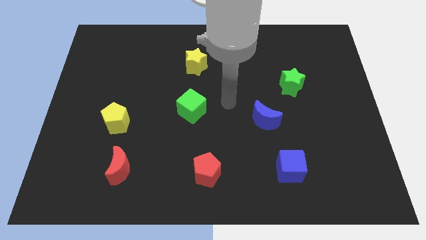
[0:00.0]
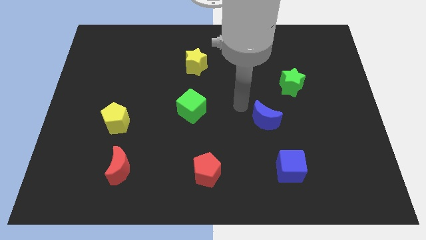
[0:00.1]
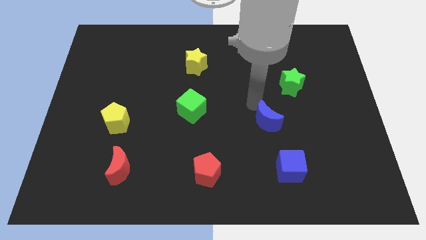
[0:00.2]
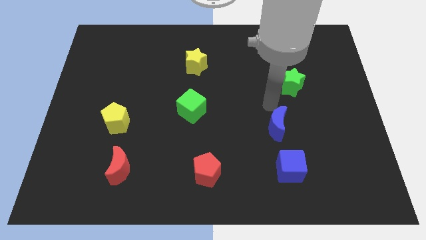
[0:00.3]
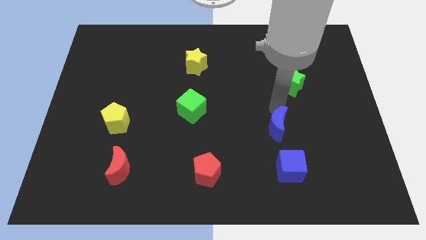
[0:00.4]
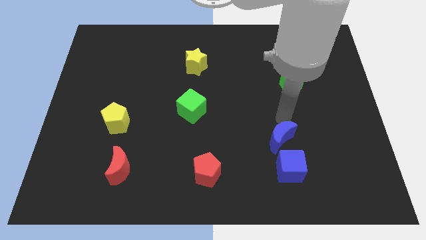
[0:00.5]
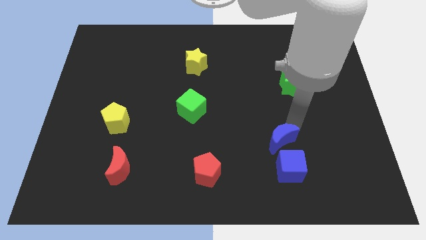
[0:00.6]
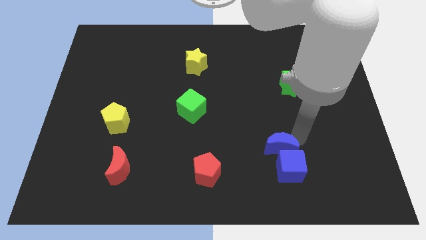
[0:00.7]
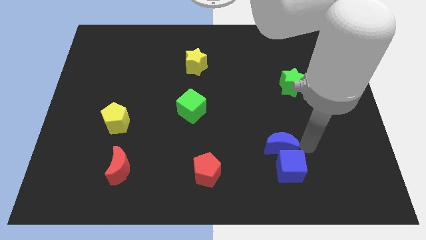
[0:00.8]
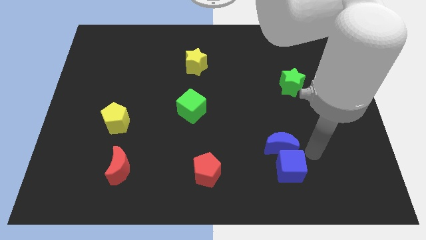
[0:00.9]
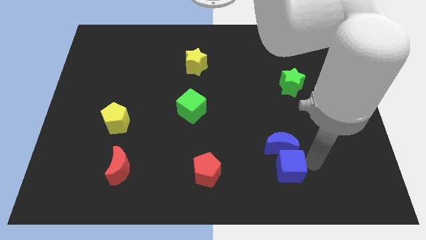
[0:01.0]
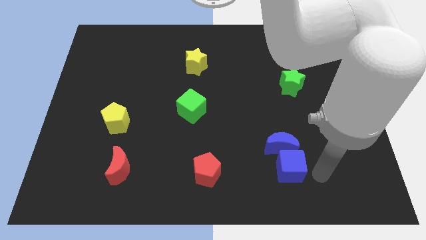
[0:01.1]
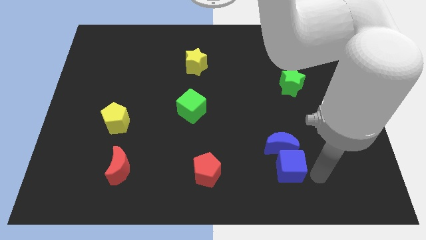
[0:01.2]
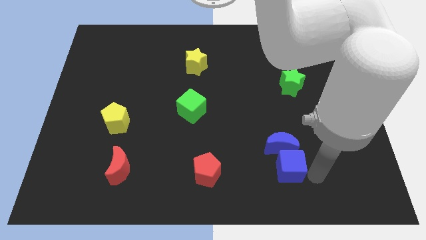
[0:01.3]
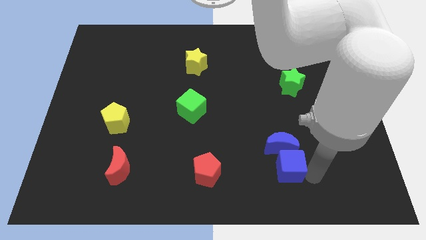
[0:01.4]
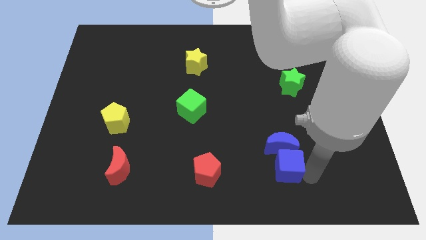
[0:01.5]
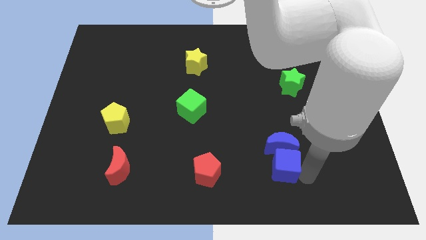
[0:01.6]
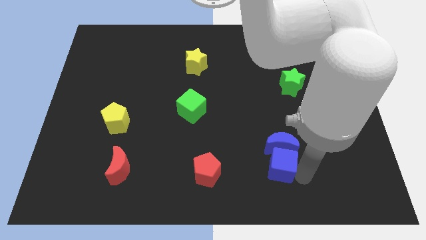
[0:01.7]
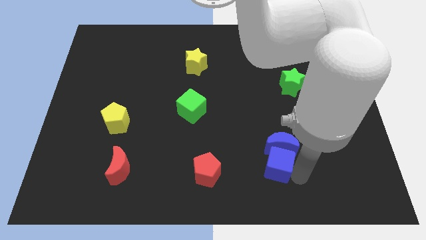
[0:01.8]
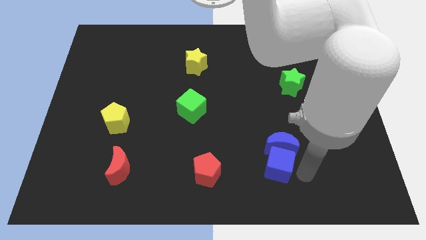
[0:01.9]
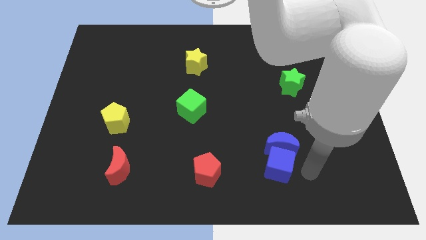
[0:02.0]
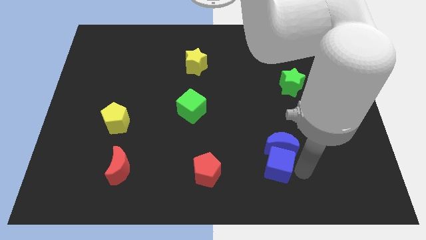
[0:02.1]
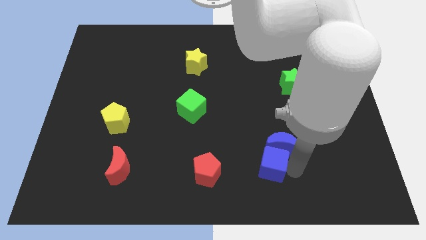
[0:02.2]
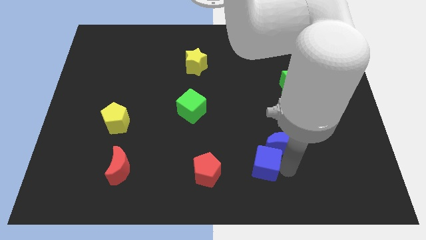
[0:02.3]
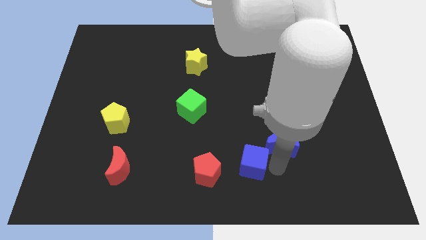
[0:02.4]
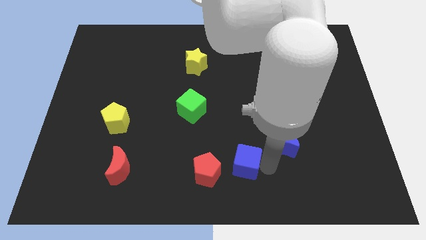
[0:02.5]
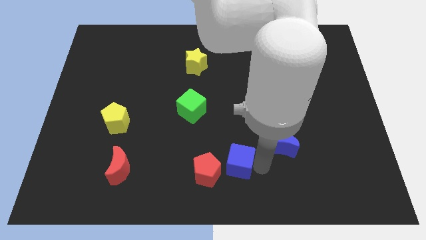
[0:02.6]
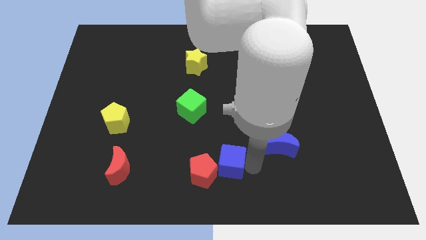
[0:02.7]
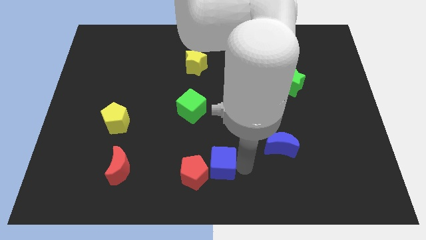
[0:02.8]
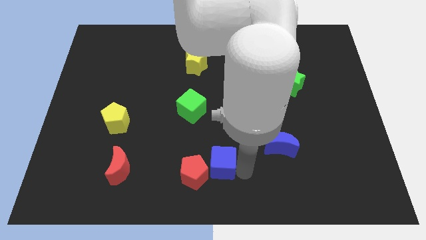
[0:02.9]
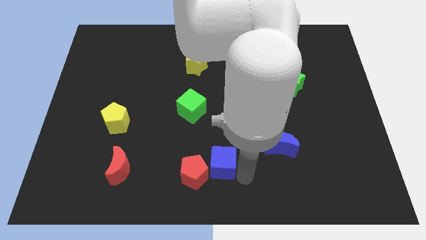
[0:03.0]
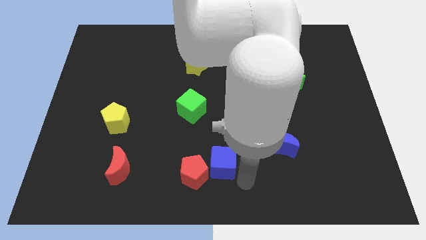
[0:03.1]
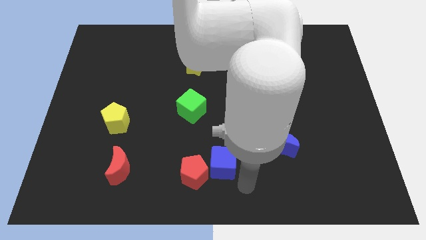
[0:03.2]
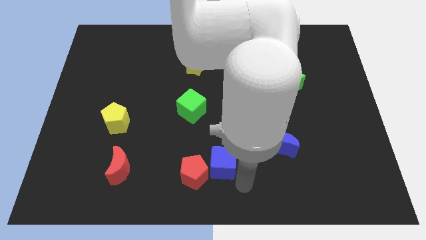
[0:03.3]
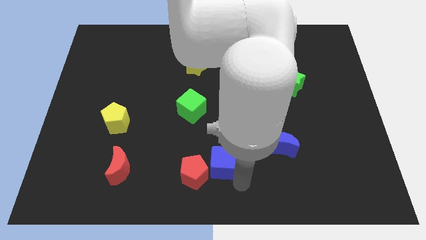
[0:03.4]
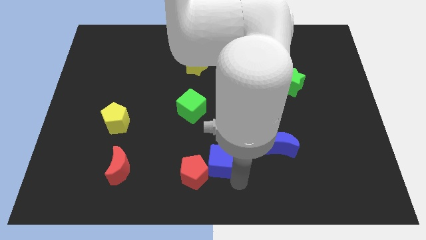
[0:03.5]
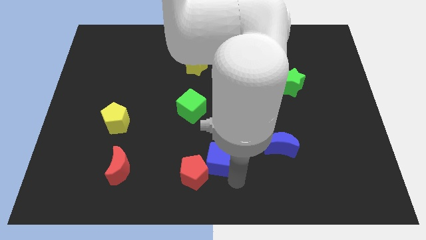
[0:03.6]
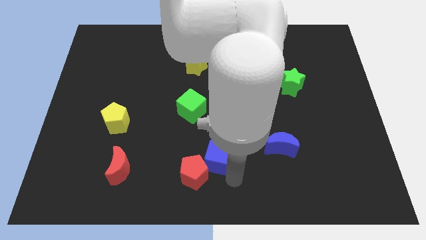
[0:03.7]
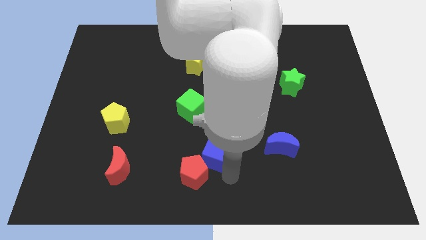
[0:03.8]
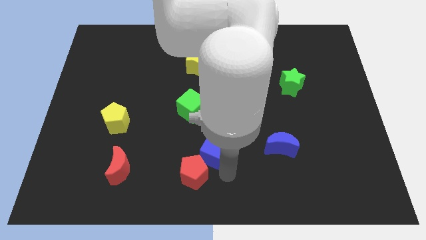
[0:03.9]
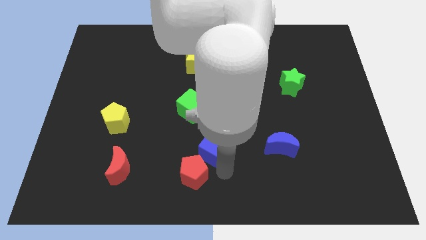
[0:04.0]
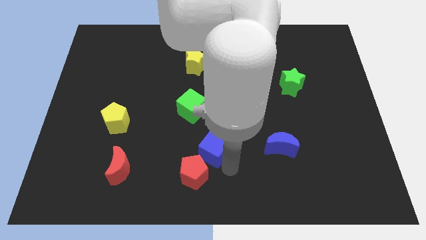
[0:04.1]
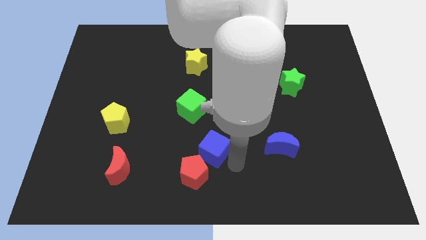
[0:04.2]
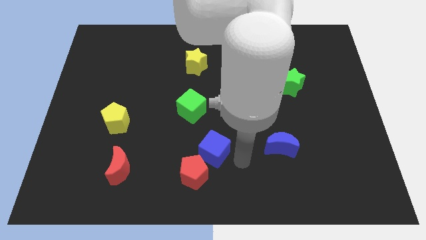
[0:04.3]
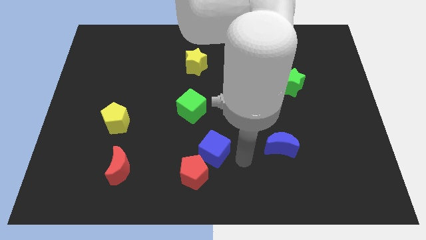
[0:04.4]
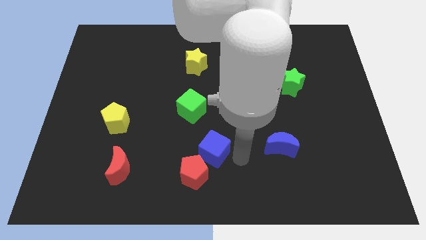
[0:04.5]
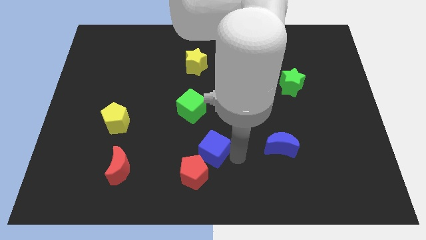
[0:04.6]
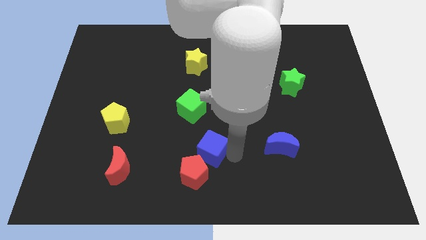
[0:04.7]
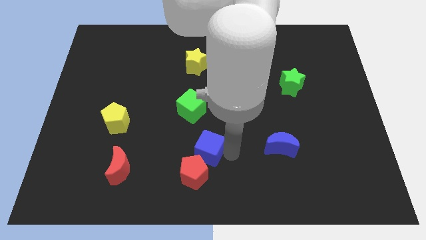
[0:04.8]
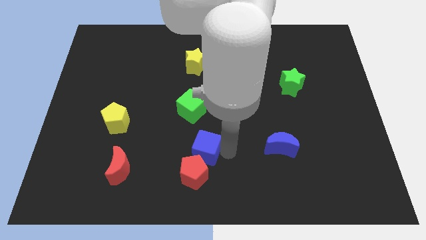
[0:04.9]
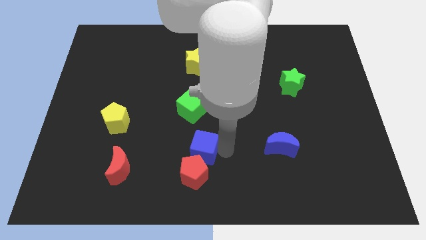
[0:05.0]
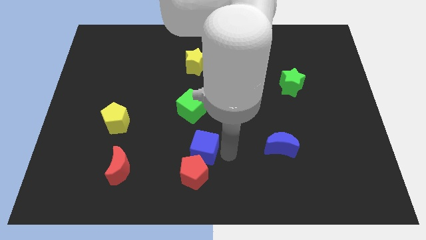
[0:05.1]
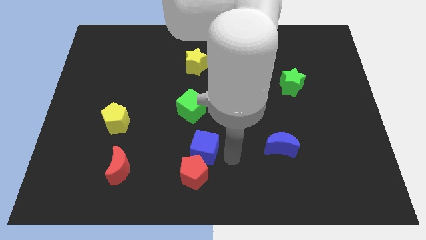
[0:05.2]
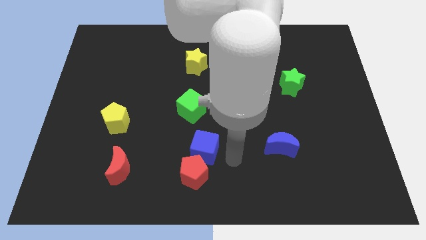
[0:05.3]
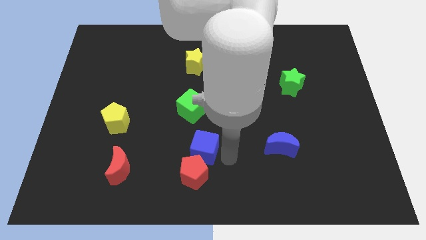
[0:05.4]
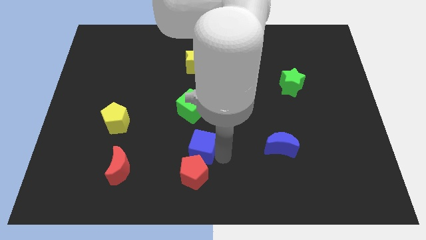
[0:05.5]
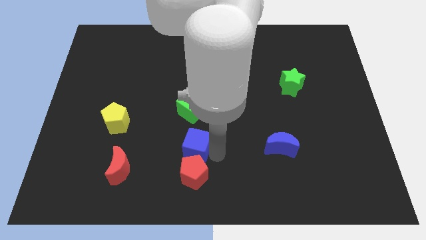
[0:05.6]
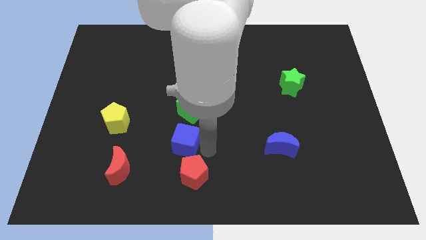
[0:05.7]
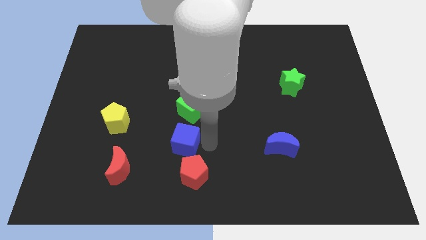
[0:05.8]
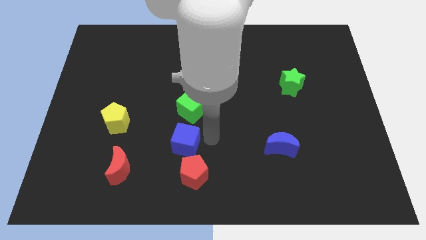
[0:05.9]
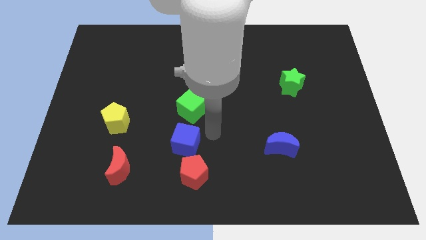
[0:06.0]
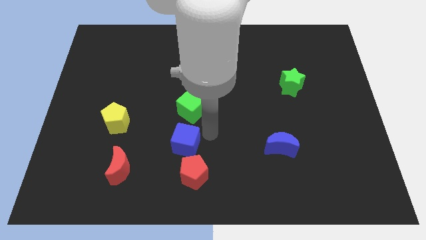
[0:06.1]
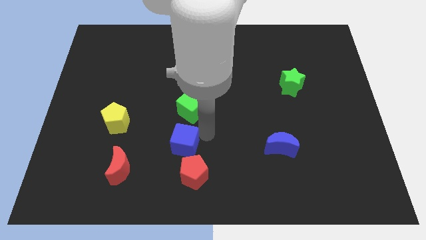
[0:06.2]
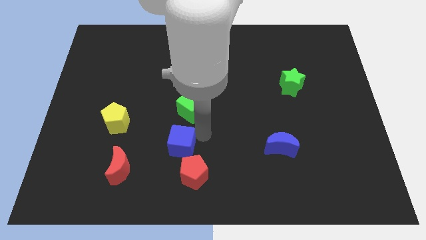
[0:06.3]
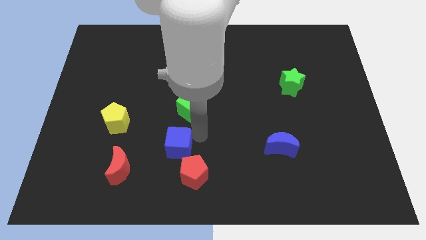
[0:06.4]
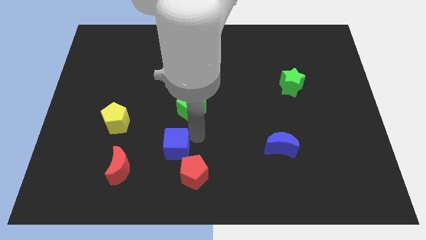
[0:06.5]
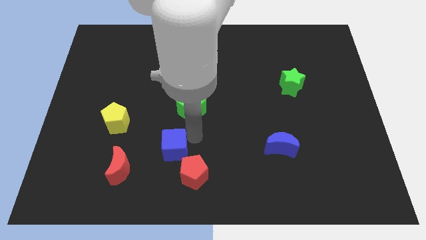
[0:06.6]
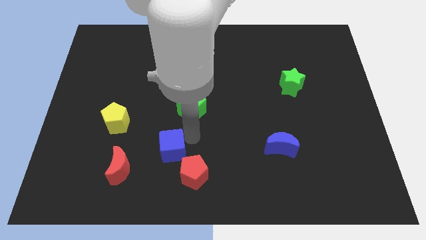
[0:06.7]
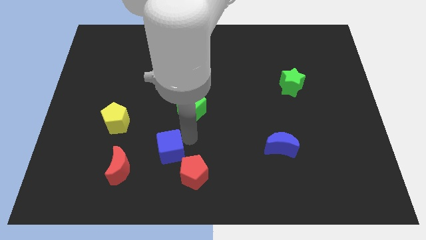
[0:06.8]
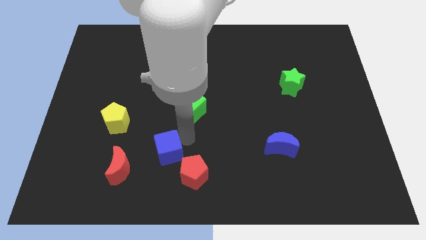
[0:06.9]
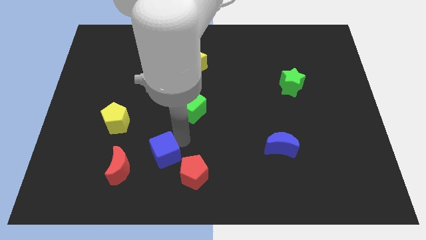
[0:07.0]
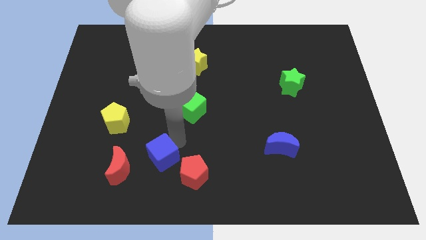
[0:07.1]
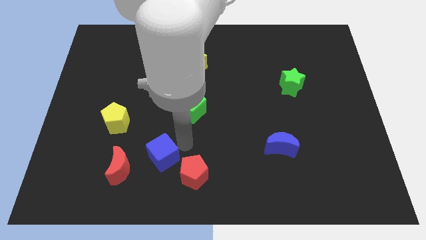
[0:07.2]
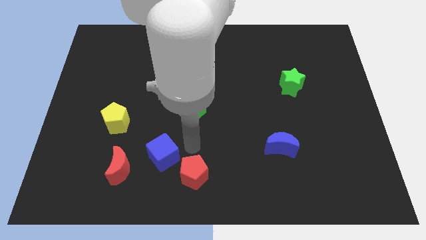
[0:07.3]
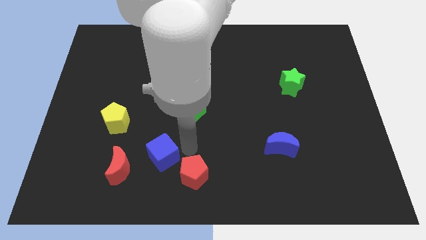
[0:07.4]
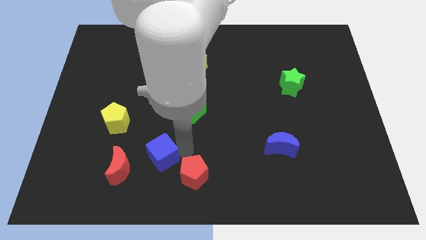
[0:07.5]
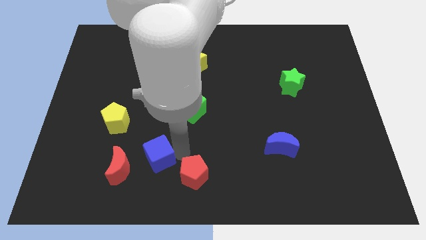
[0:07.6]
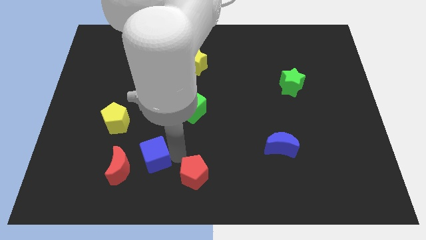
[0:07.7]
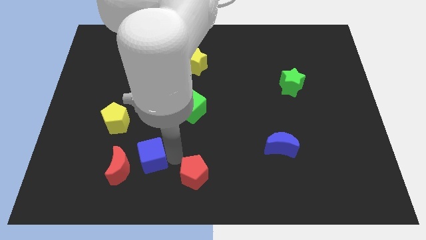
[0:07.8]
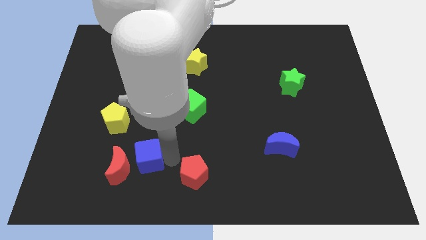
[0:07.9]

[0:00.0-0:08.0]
push the blue cube close to the red moon
